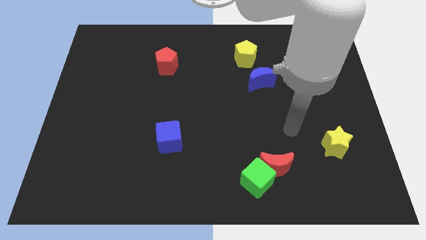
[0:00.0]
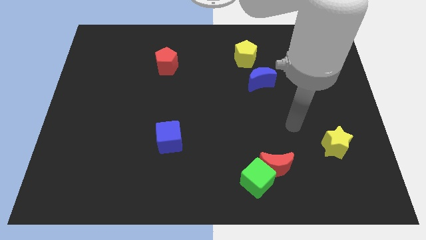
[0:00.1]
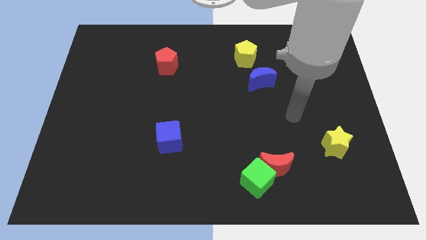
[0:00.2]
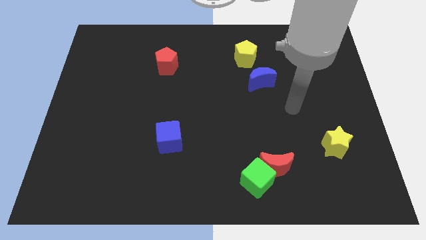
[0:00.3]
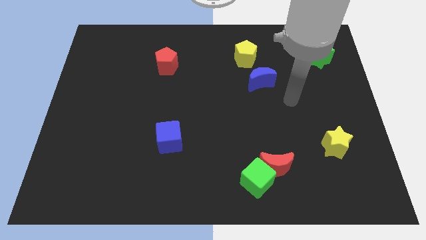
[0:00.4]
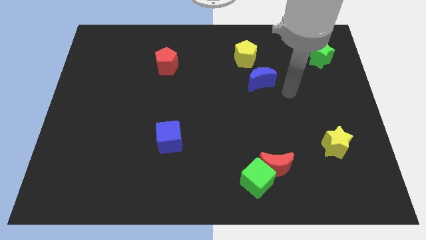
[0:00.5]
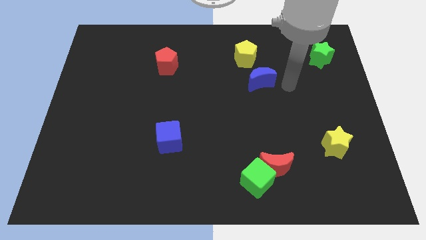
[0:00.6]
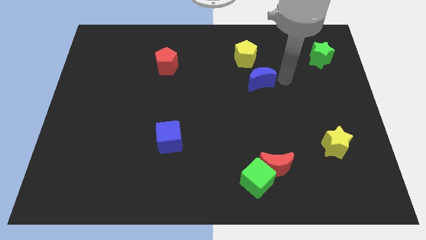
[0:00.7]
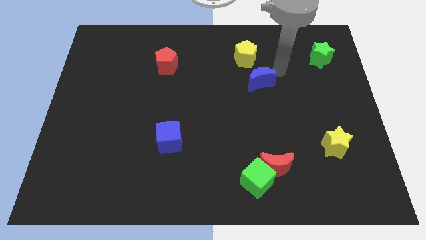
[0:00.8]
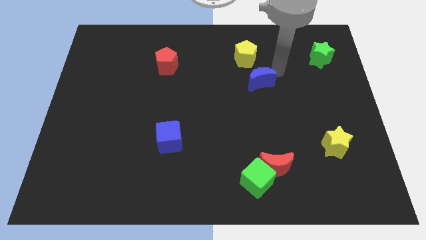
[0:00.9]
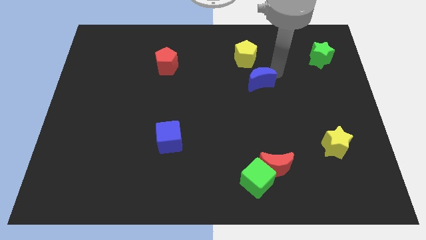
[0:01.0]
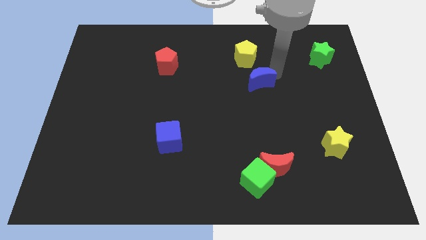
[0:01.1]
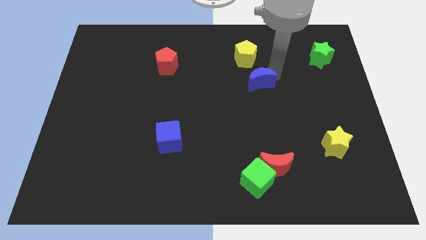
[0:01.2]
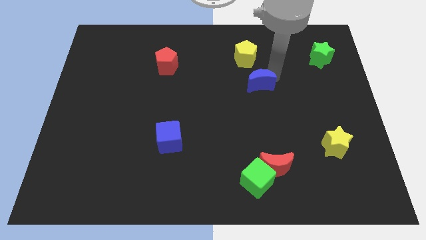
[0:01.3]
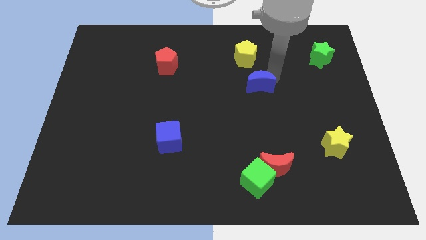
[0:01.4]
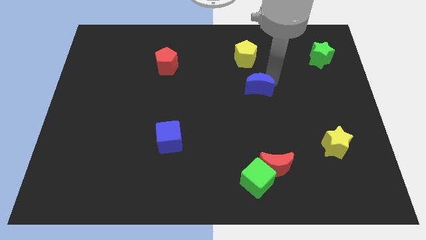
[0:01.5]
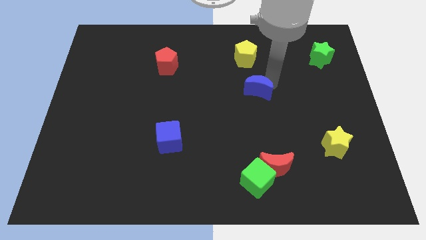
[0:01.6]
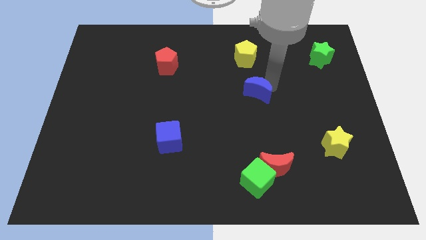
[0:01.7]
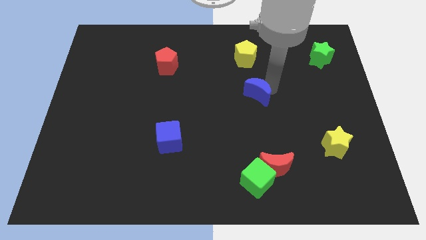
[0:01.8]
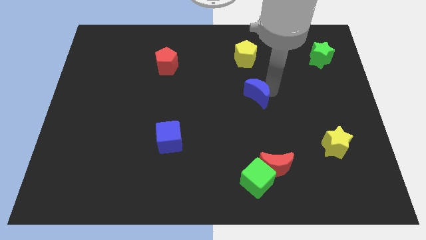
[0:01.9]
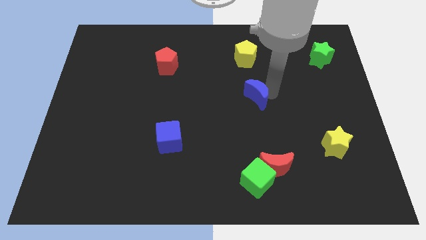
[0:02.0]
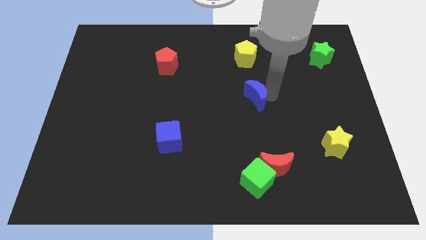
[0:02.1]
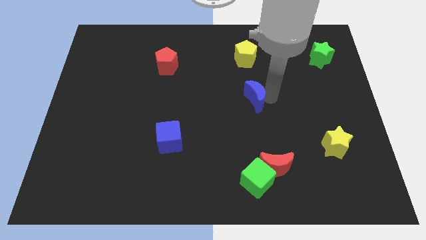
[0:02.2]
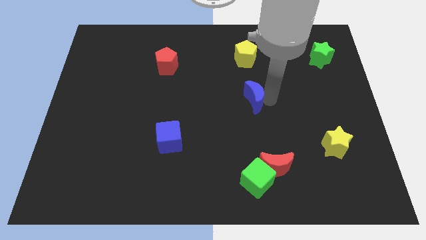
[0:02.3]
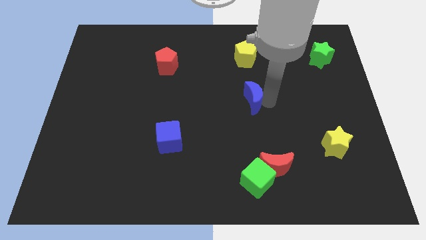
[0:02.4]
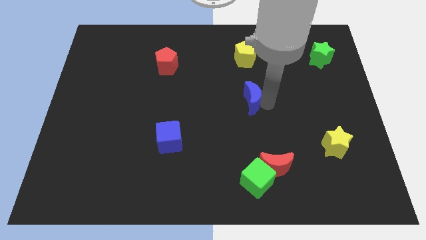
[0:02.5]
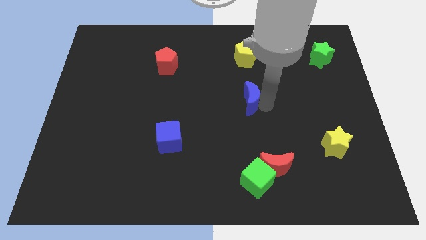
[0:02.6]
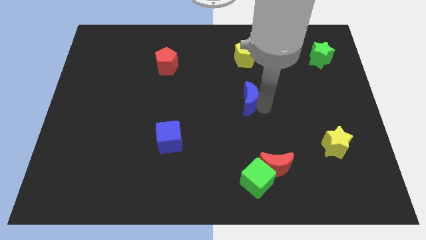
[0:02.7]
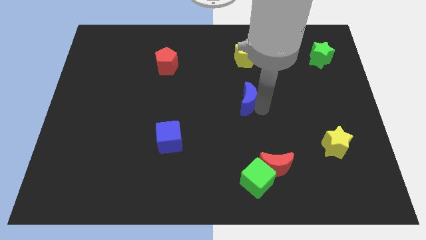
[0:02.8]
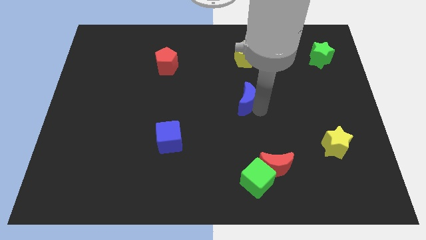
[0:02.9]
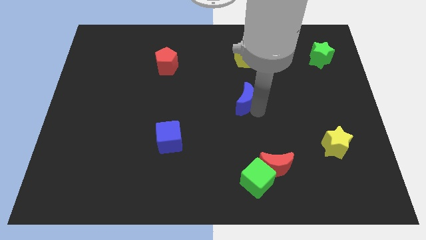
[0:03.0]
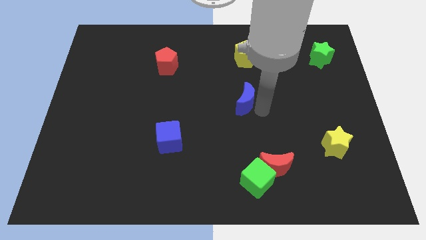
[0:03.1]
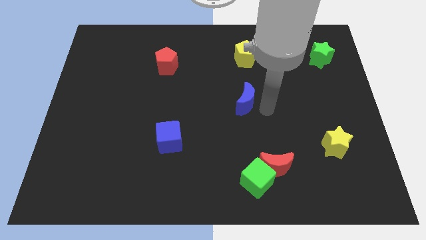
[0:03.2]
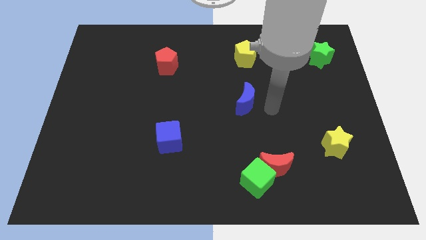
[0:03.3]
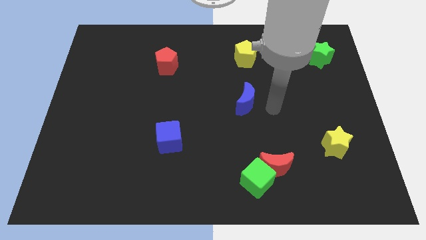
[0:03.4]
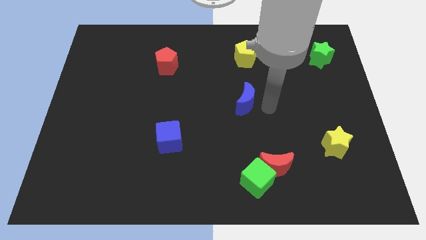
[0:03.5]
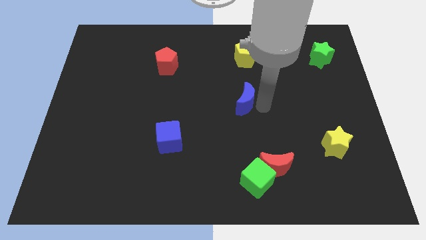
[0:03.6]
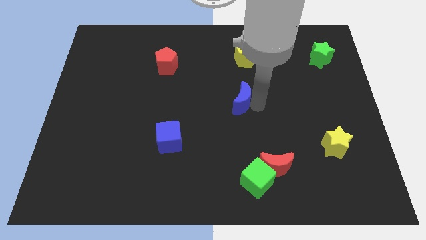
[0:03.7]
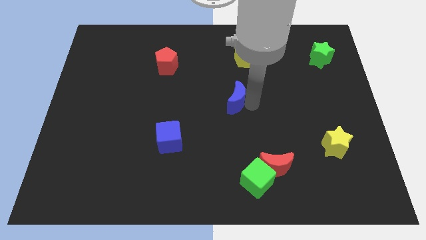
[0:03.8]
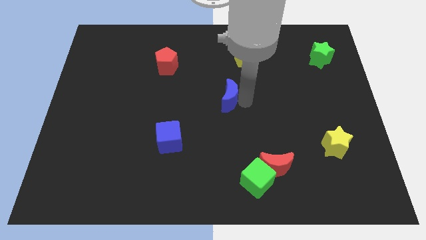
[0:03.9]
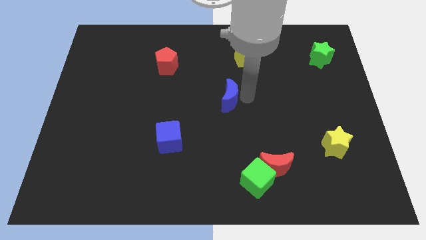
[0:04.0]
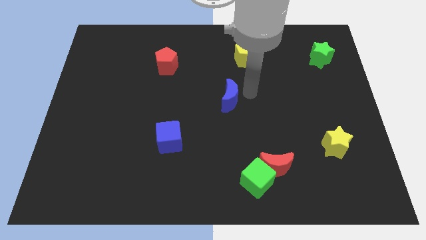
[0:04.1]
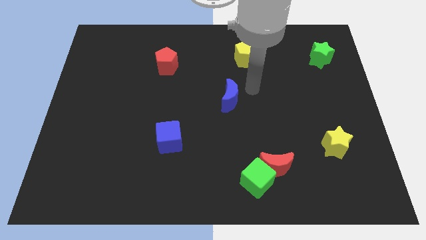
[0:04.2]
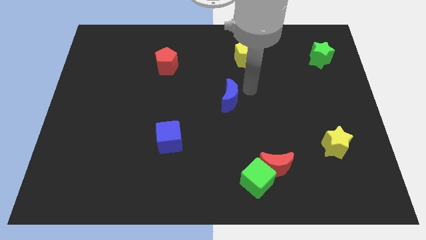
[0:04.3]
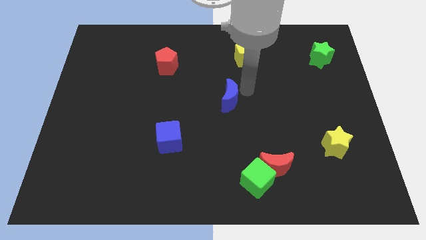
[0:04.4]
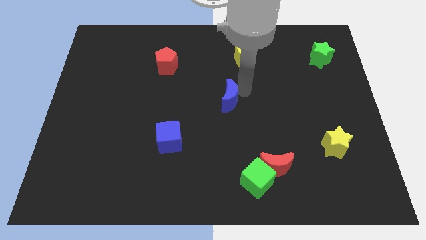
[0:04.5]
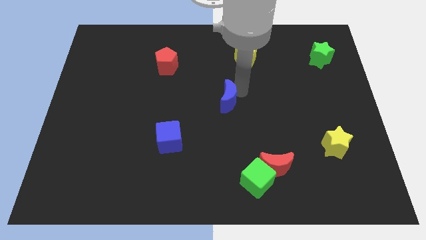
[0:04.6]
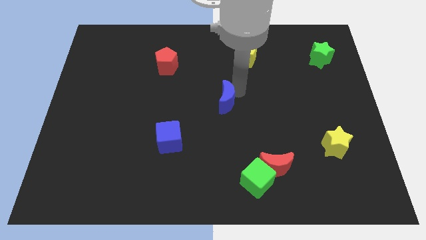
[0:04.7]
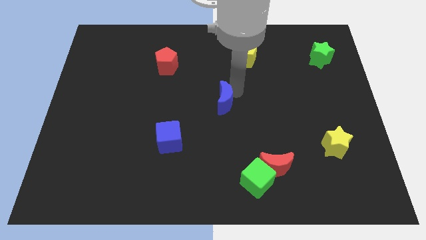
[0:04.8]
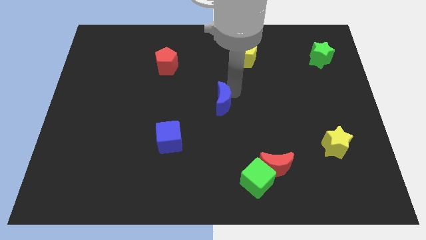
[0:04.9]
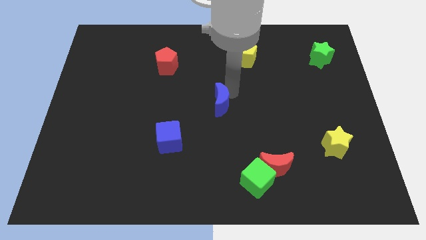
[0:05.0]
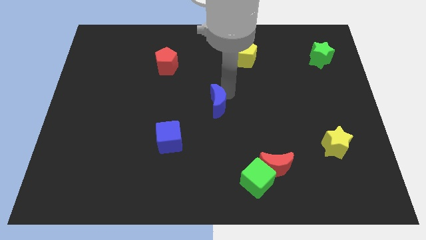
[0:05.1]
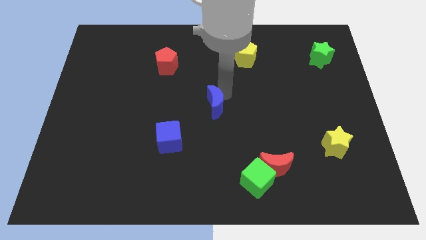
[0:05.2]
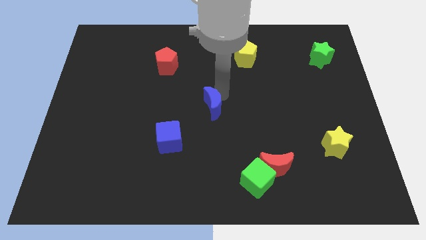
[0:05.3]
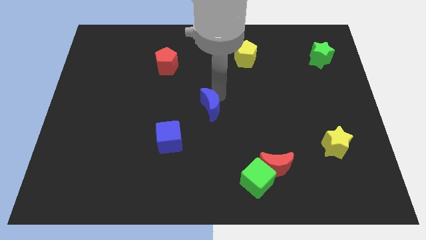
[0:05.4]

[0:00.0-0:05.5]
put the blue moon to the top right side of the blue cube

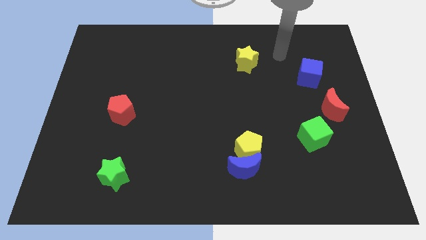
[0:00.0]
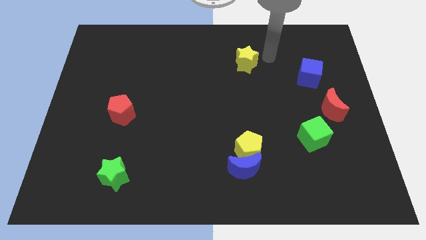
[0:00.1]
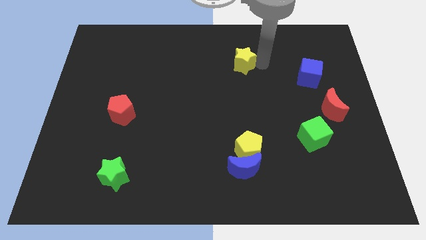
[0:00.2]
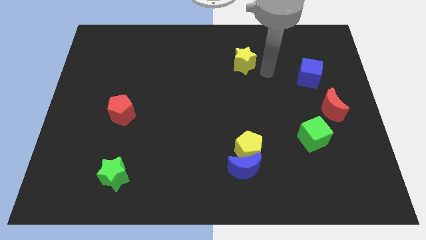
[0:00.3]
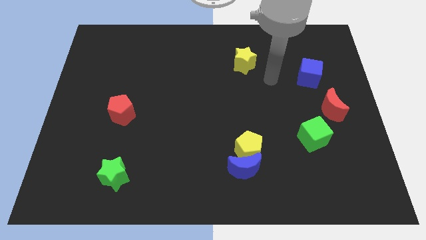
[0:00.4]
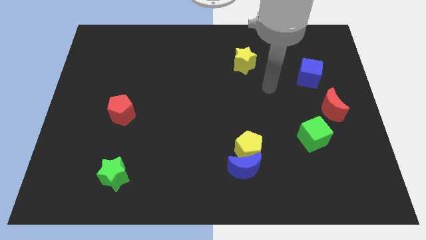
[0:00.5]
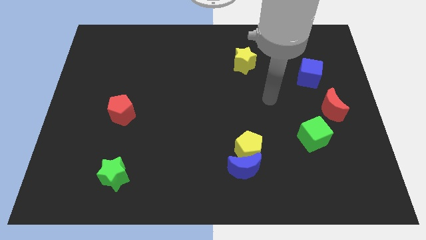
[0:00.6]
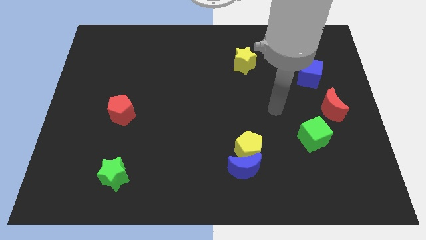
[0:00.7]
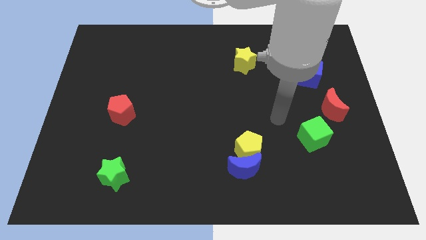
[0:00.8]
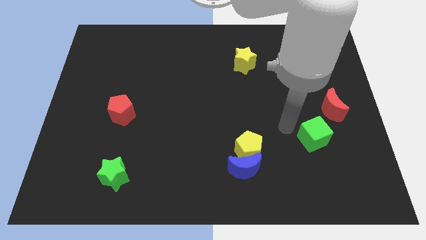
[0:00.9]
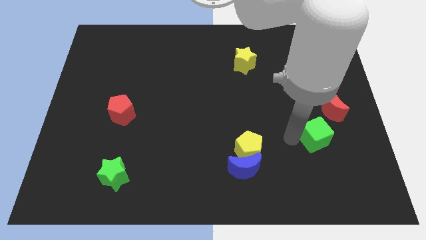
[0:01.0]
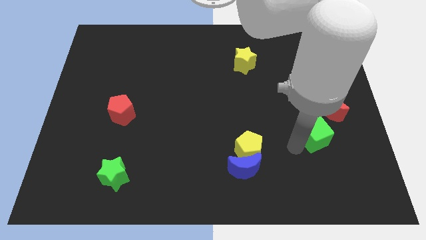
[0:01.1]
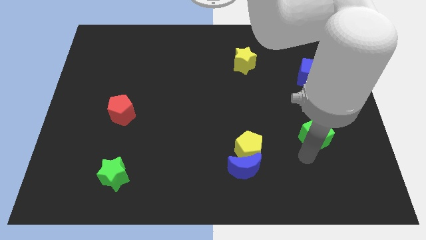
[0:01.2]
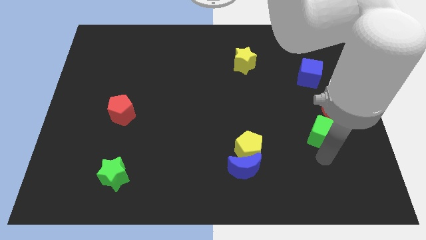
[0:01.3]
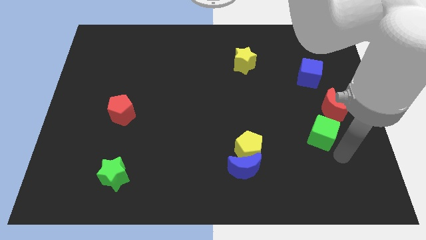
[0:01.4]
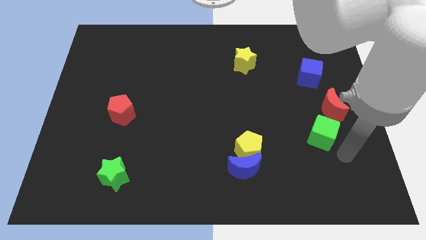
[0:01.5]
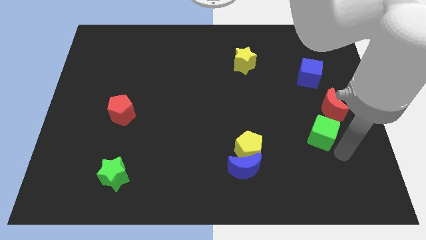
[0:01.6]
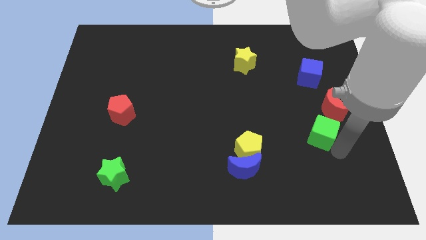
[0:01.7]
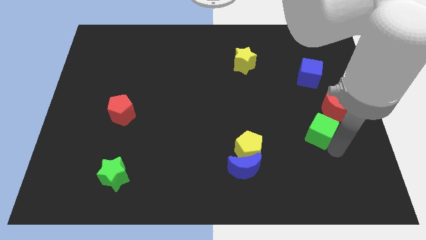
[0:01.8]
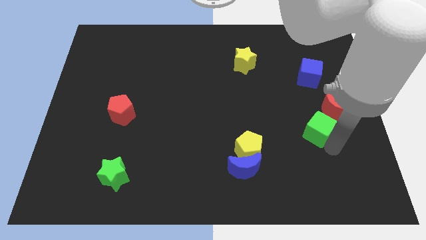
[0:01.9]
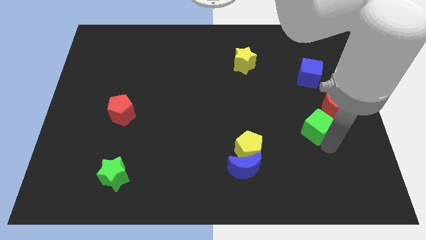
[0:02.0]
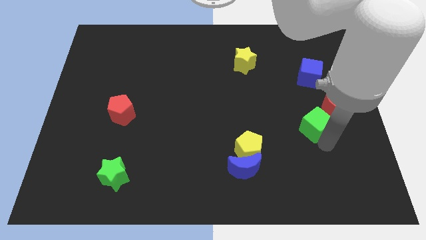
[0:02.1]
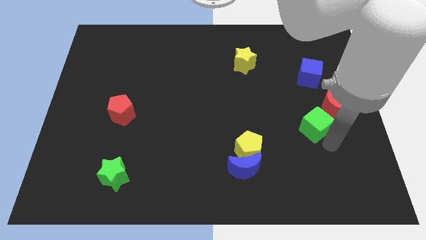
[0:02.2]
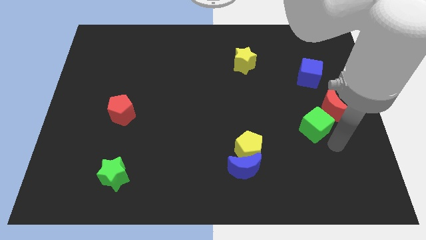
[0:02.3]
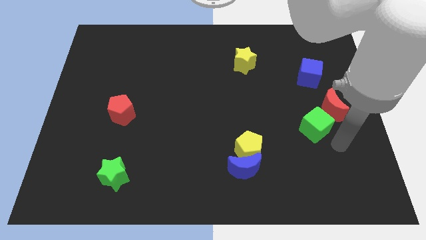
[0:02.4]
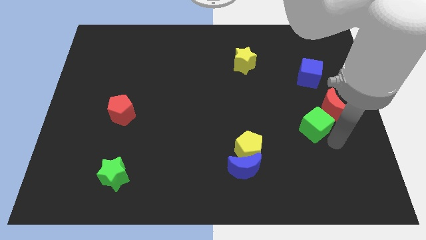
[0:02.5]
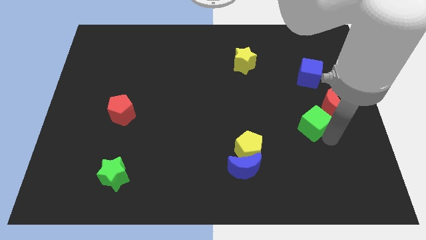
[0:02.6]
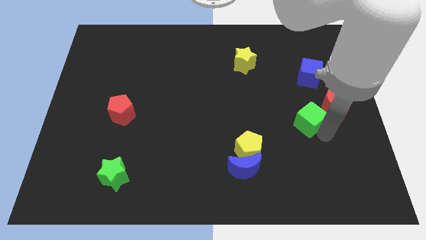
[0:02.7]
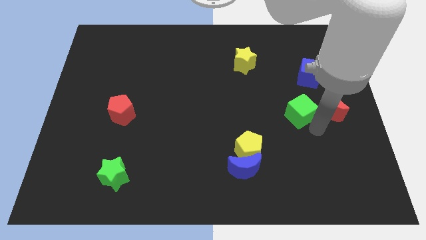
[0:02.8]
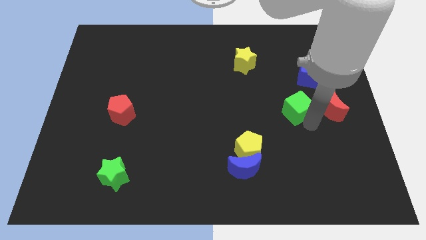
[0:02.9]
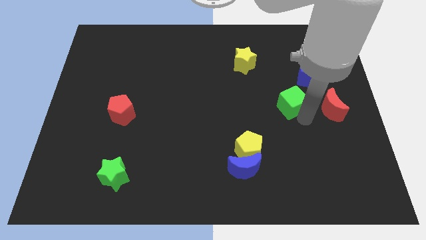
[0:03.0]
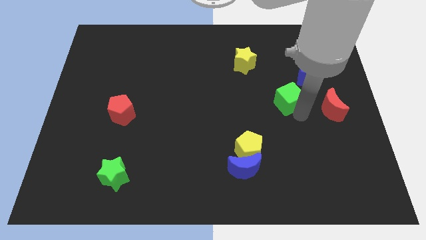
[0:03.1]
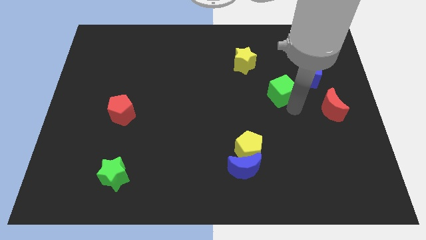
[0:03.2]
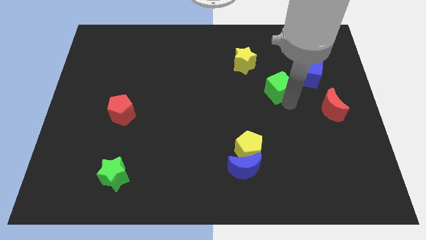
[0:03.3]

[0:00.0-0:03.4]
push the green cube to the left of the blue cube
